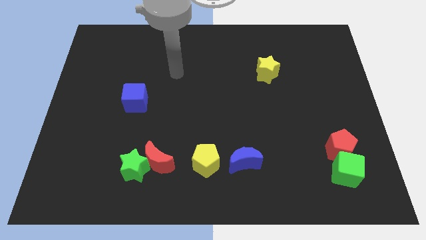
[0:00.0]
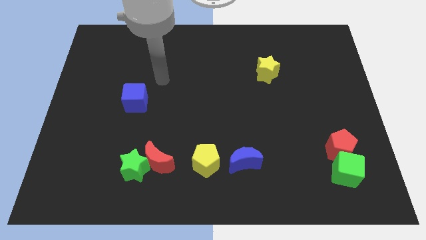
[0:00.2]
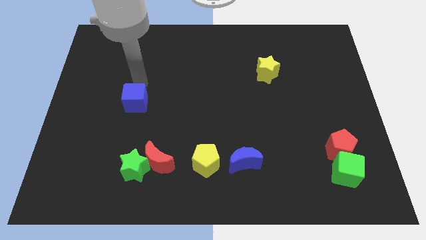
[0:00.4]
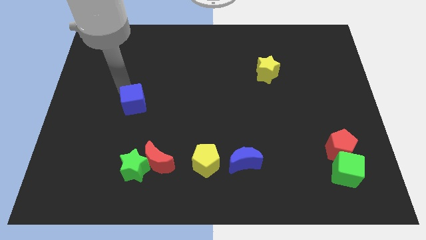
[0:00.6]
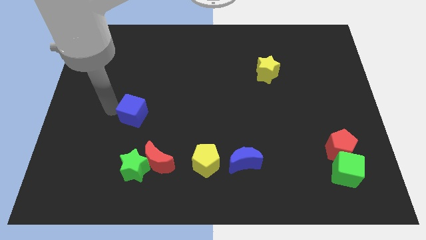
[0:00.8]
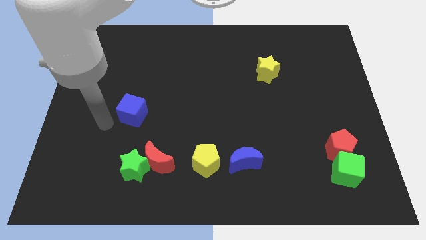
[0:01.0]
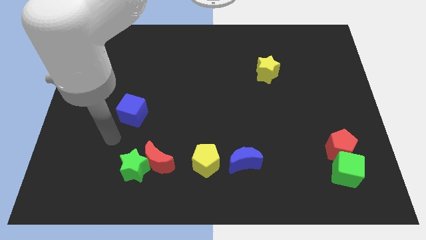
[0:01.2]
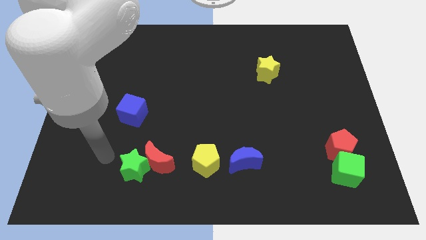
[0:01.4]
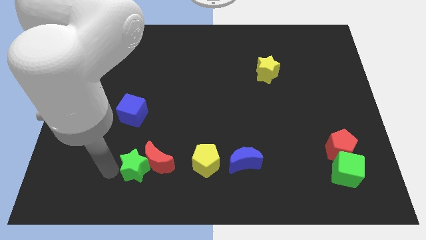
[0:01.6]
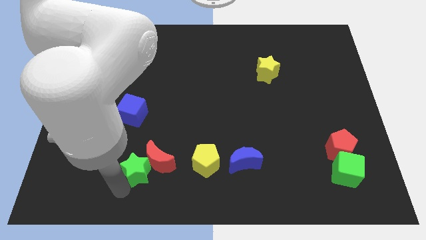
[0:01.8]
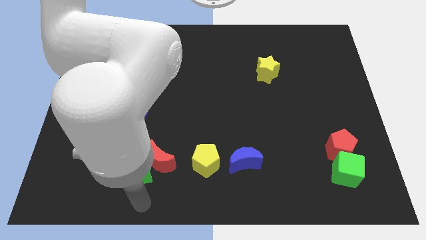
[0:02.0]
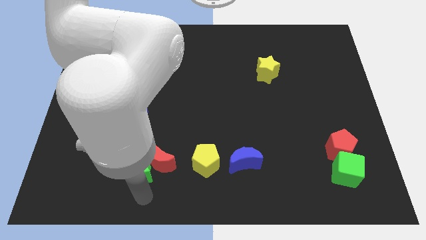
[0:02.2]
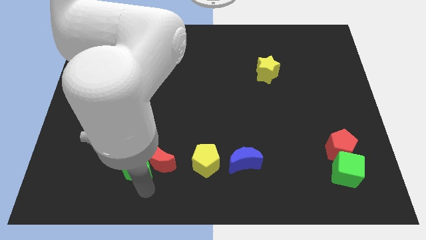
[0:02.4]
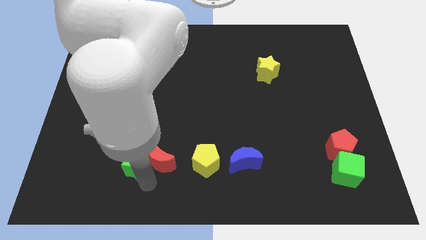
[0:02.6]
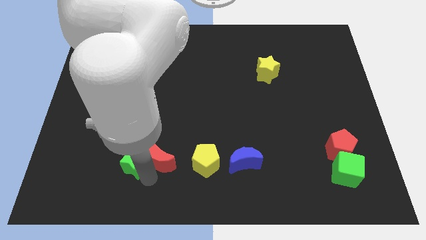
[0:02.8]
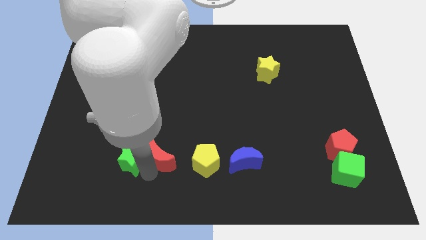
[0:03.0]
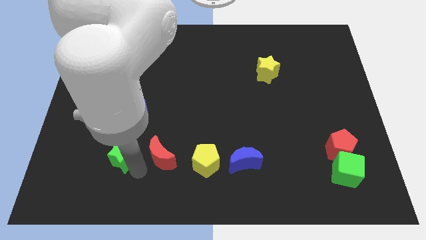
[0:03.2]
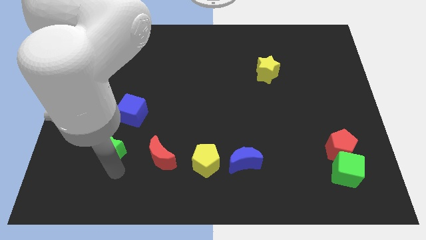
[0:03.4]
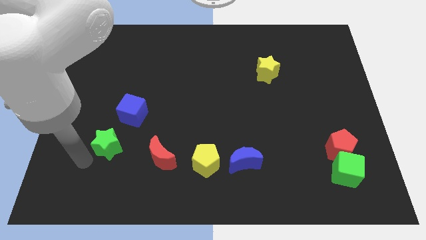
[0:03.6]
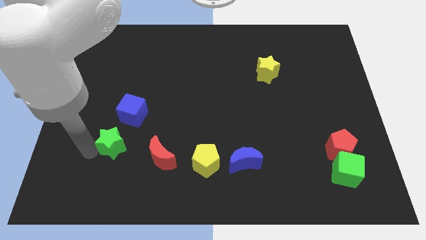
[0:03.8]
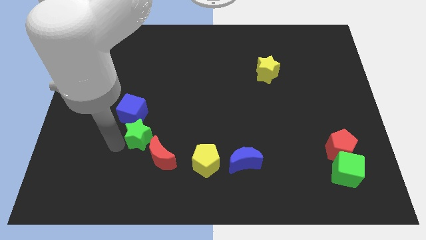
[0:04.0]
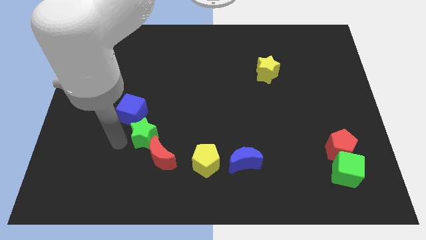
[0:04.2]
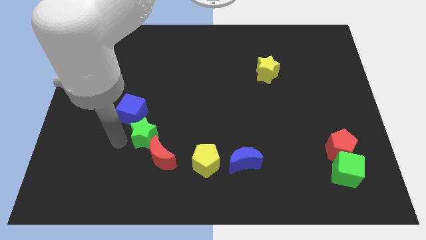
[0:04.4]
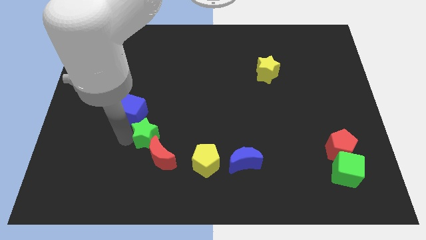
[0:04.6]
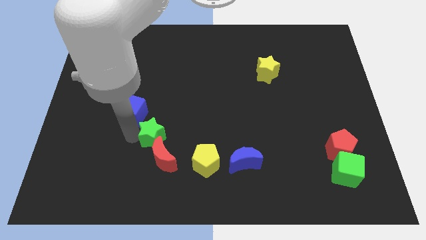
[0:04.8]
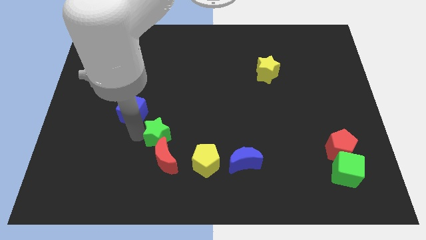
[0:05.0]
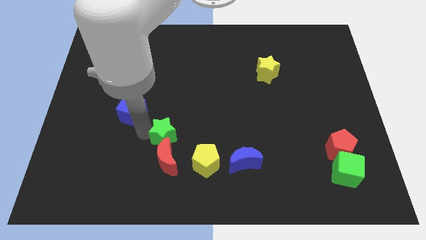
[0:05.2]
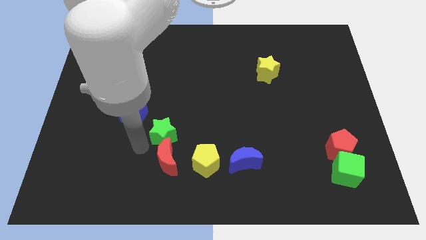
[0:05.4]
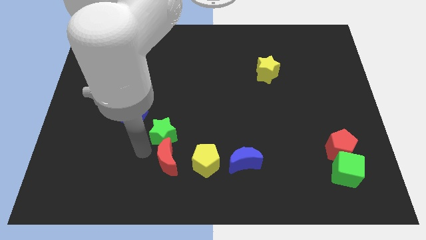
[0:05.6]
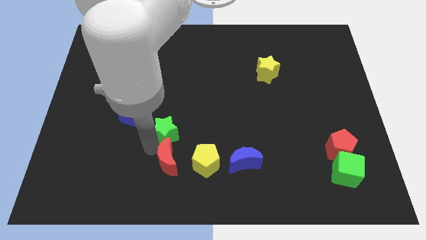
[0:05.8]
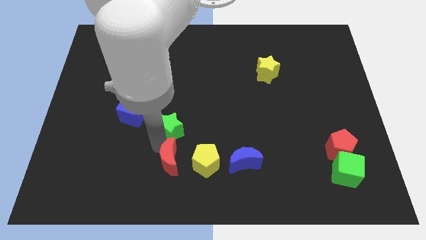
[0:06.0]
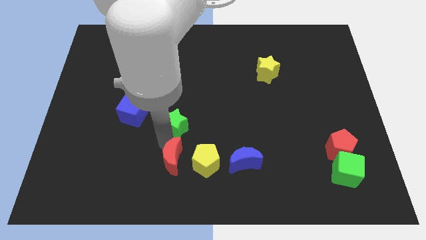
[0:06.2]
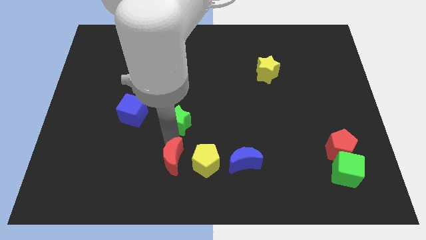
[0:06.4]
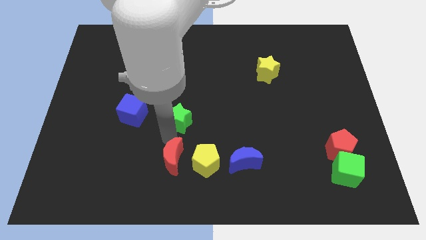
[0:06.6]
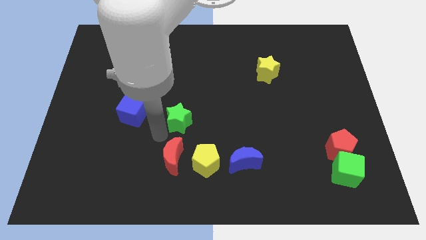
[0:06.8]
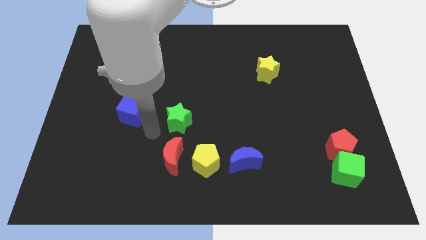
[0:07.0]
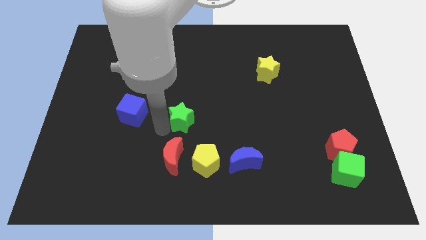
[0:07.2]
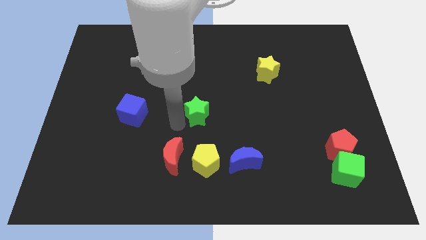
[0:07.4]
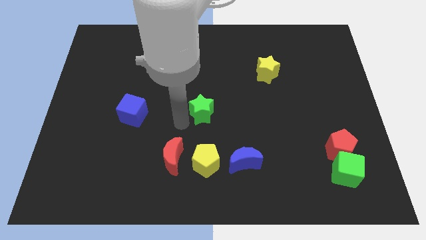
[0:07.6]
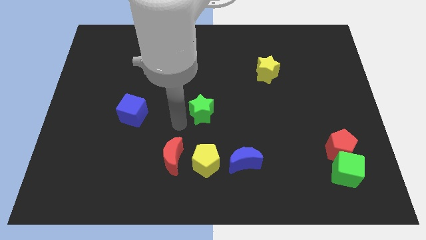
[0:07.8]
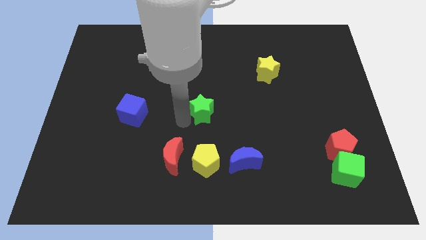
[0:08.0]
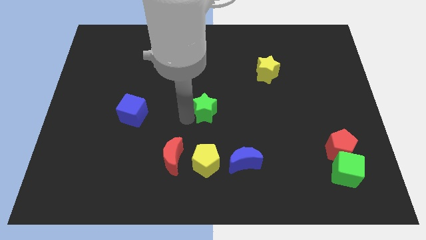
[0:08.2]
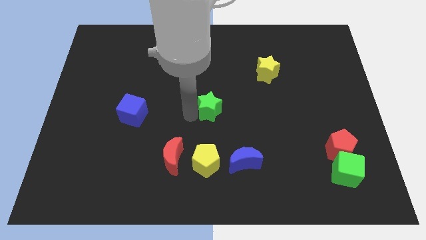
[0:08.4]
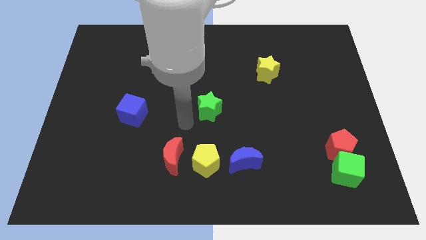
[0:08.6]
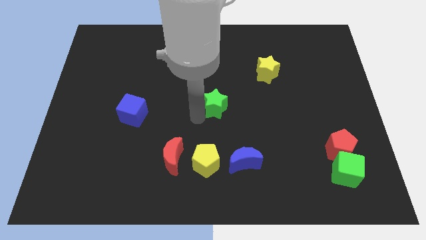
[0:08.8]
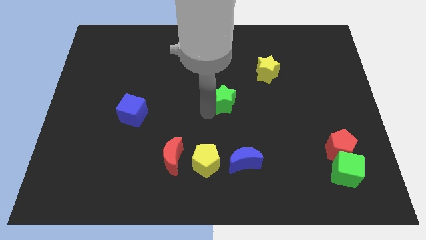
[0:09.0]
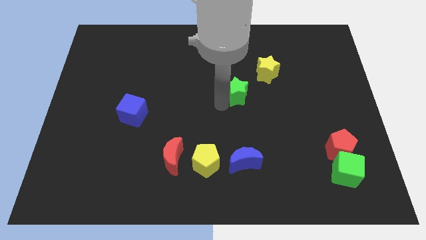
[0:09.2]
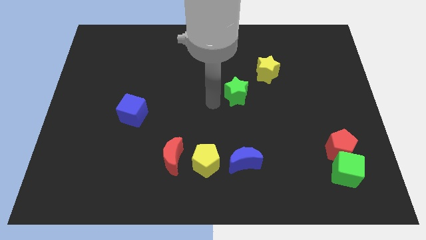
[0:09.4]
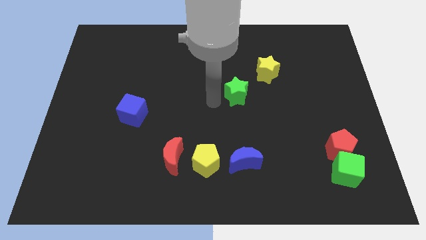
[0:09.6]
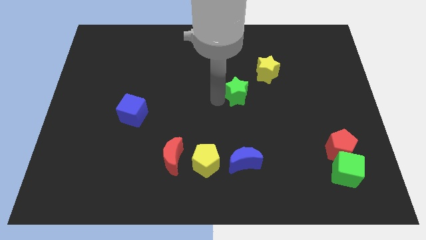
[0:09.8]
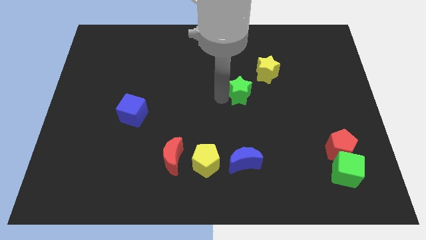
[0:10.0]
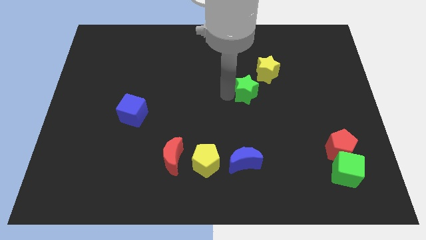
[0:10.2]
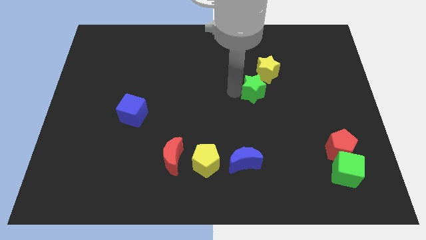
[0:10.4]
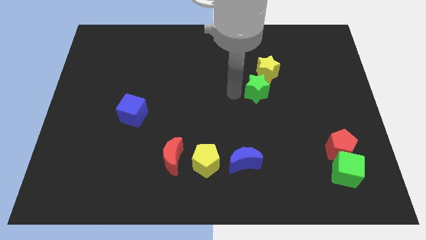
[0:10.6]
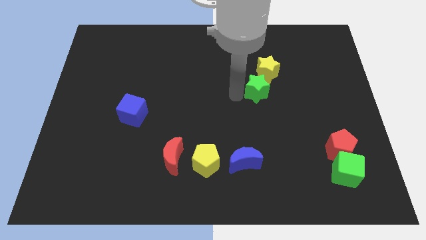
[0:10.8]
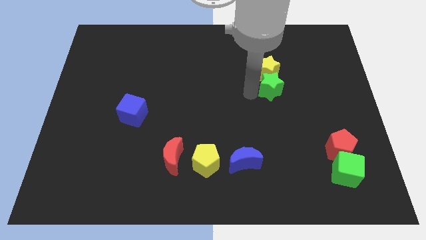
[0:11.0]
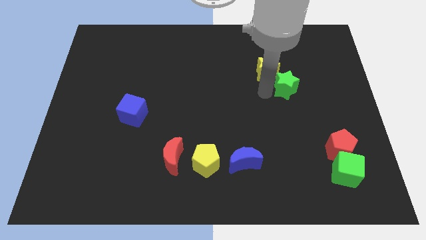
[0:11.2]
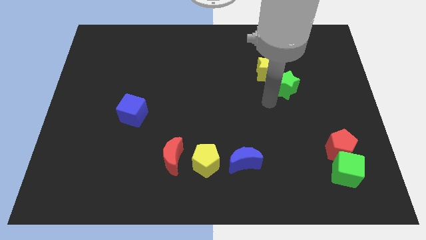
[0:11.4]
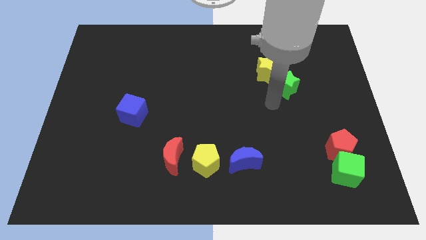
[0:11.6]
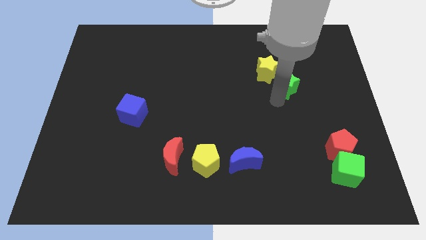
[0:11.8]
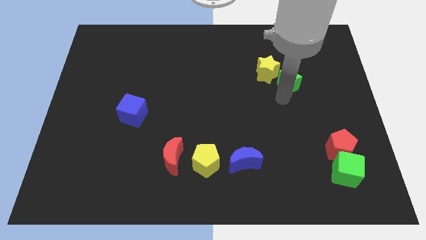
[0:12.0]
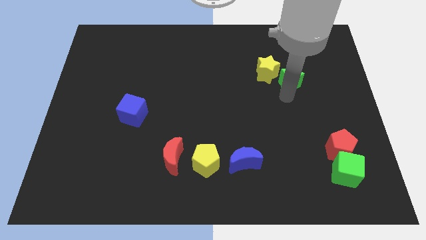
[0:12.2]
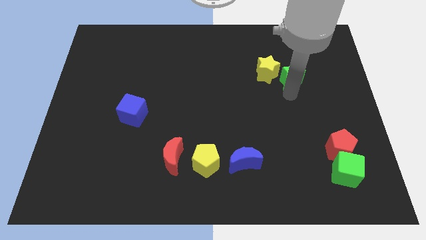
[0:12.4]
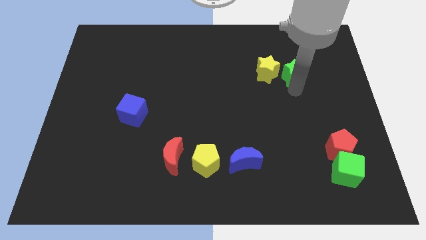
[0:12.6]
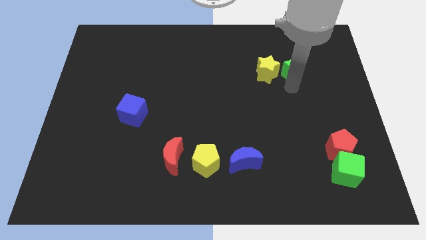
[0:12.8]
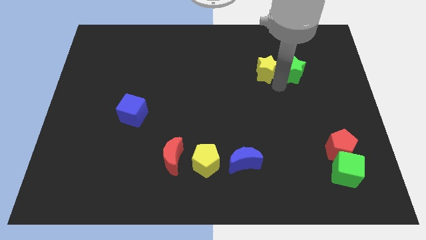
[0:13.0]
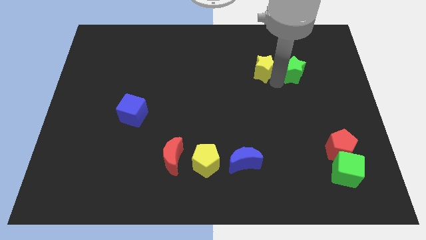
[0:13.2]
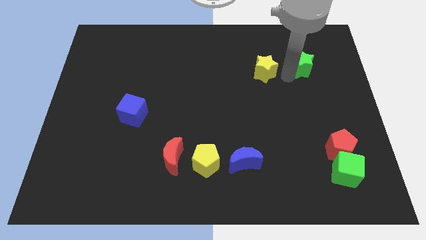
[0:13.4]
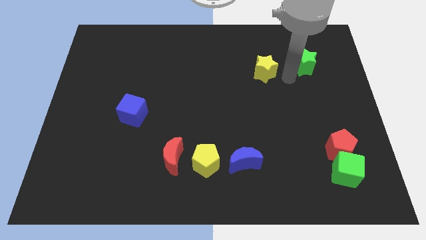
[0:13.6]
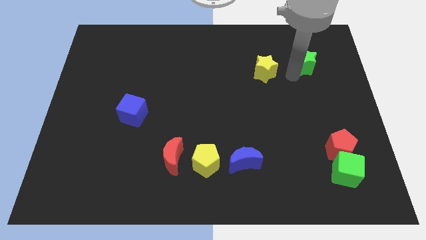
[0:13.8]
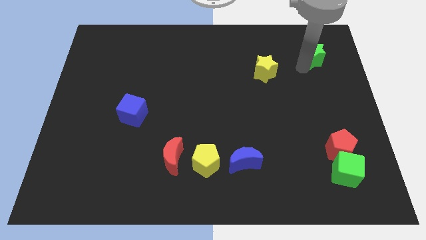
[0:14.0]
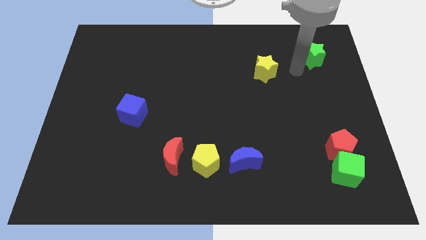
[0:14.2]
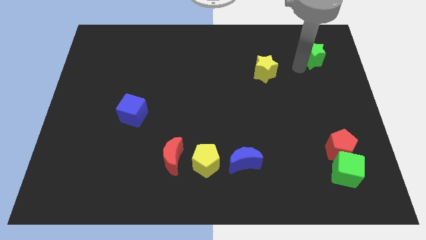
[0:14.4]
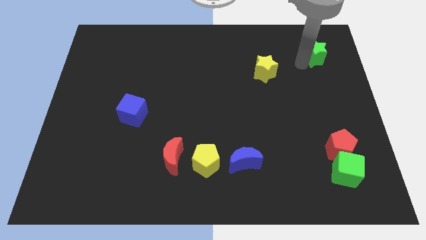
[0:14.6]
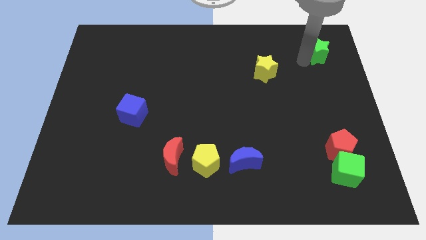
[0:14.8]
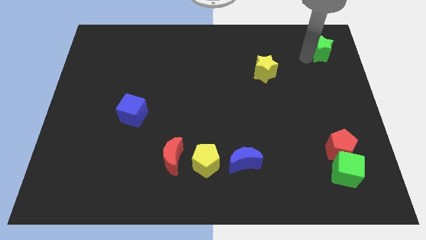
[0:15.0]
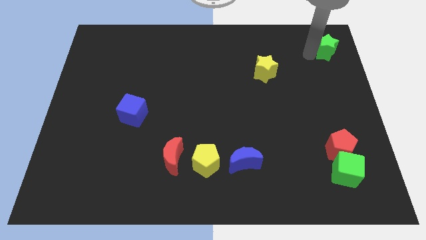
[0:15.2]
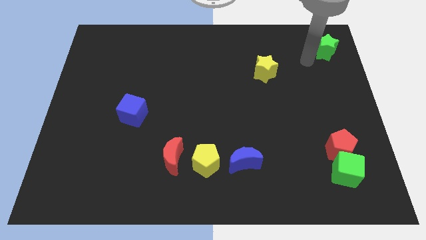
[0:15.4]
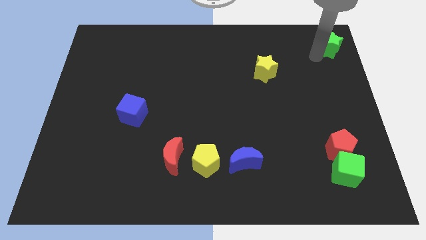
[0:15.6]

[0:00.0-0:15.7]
put the green star to the top right
